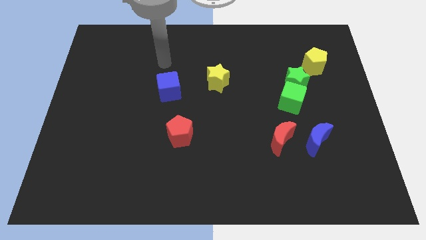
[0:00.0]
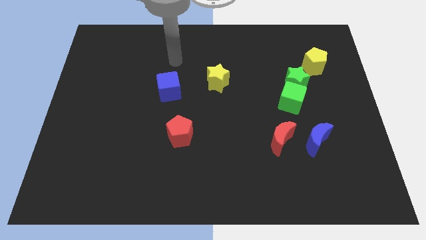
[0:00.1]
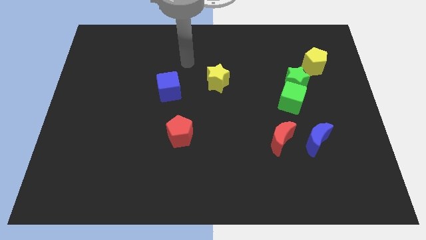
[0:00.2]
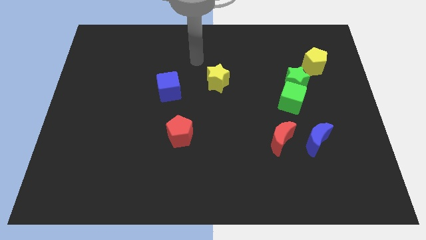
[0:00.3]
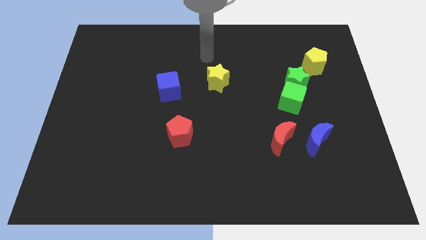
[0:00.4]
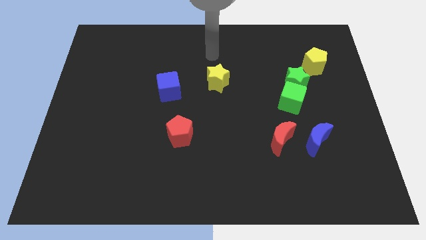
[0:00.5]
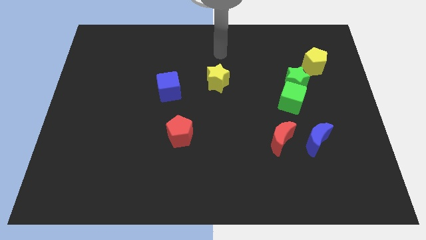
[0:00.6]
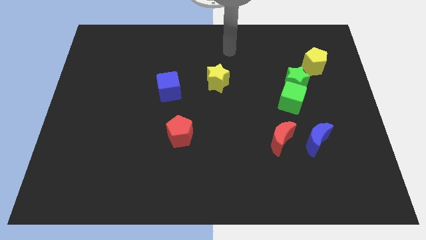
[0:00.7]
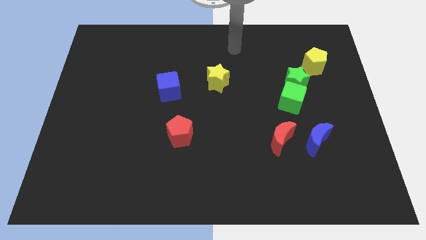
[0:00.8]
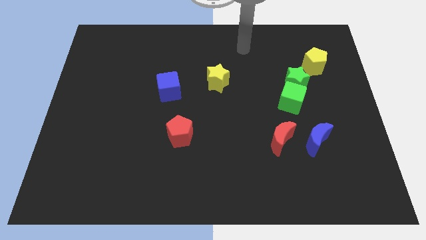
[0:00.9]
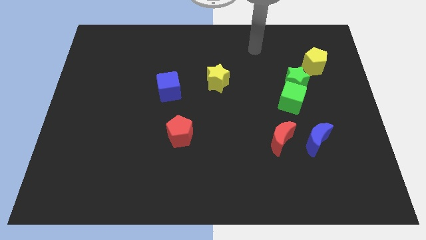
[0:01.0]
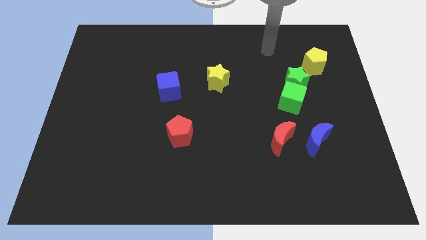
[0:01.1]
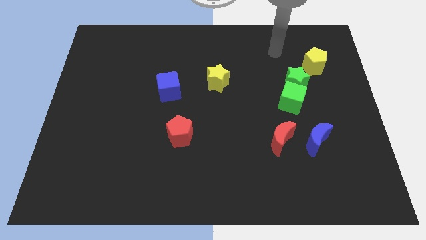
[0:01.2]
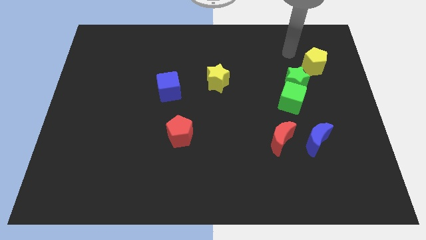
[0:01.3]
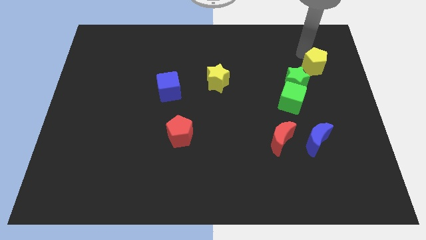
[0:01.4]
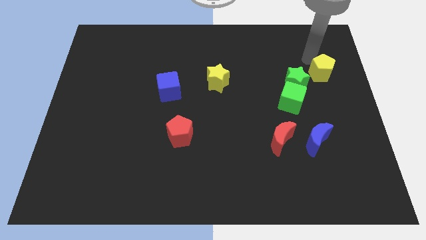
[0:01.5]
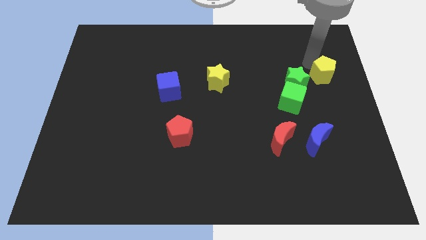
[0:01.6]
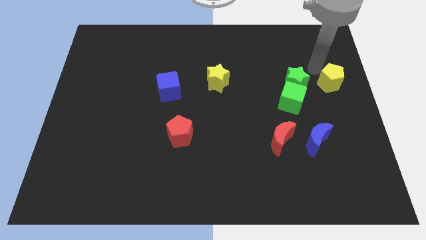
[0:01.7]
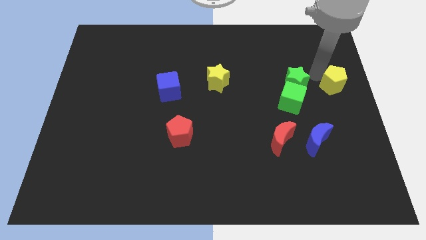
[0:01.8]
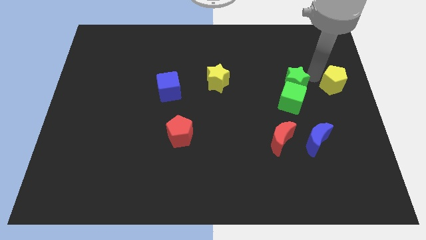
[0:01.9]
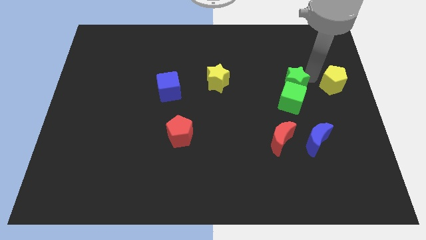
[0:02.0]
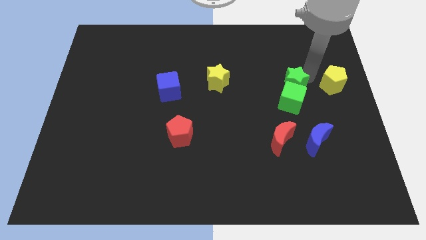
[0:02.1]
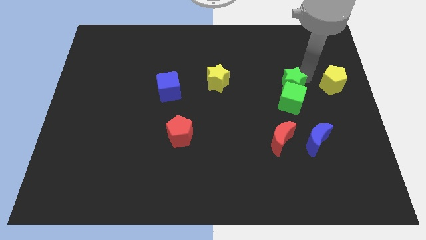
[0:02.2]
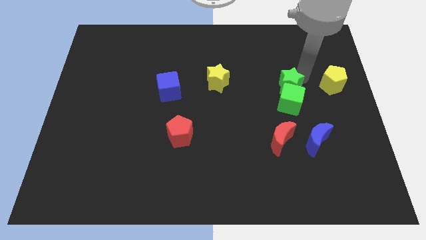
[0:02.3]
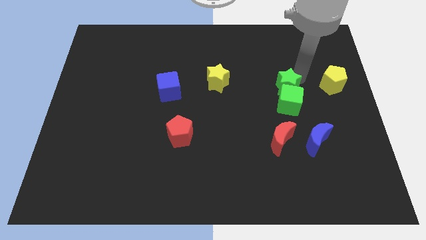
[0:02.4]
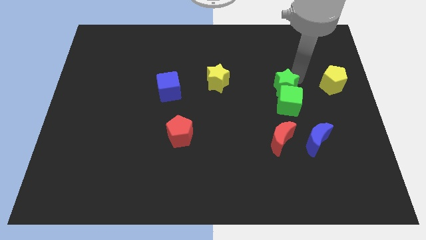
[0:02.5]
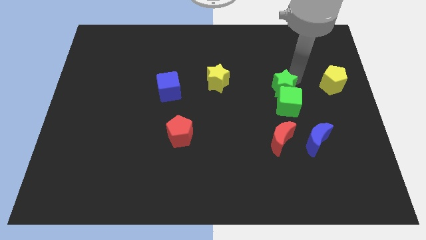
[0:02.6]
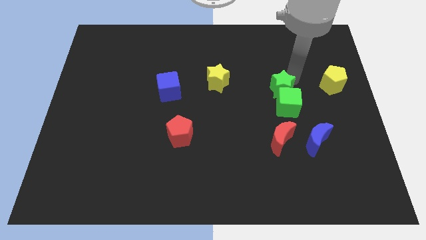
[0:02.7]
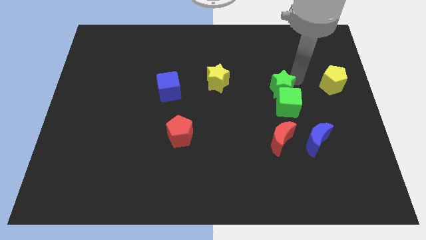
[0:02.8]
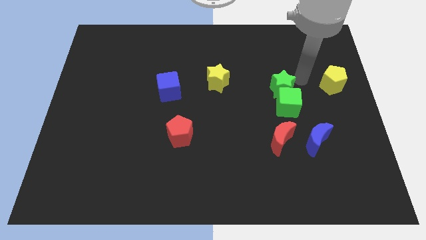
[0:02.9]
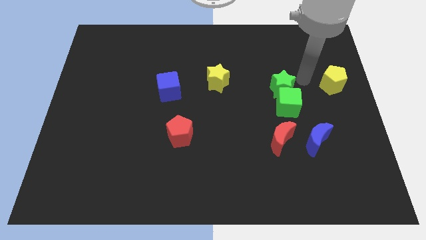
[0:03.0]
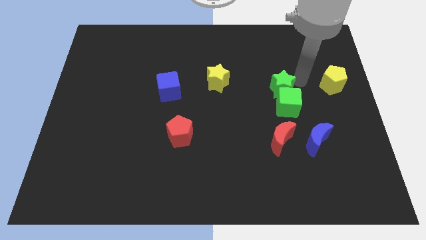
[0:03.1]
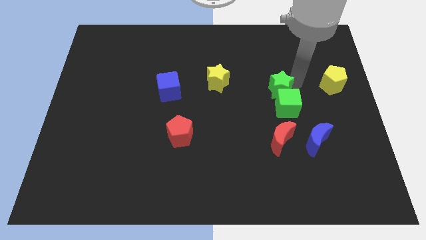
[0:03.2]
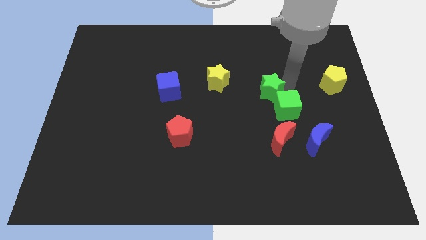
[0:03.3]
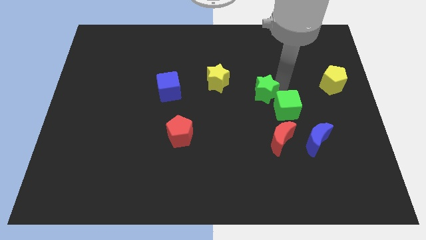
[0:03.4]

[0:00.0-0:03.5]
slightly move the green star downwards and to the left diagonally

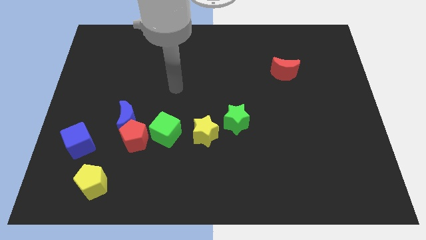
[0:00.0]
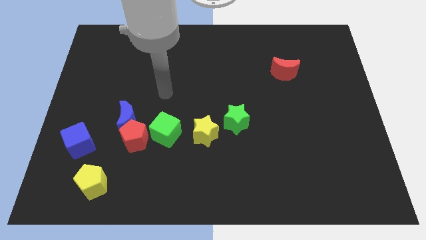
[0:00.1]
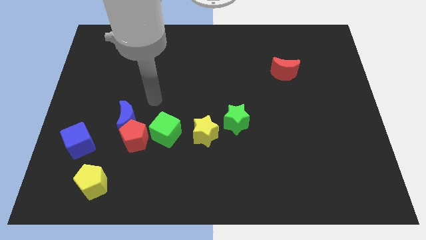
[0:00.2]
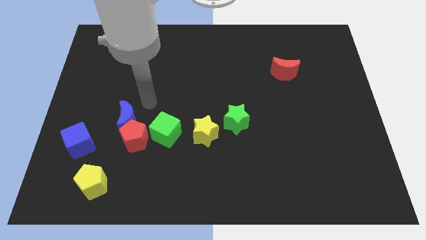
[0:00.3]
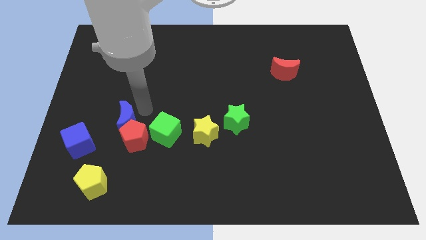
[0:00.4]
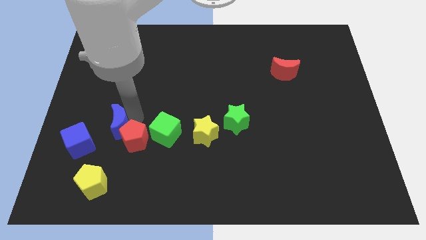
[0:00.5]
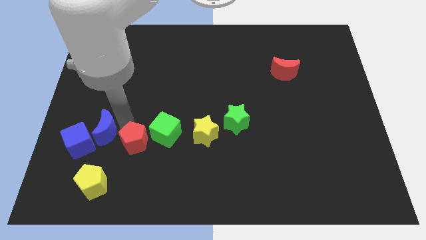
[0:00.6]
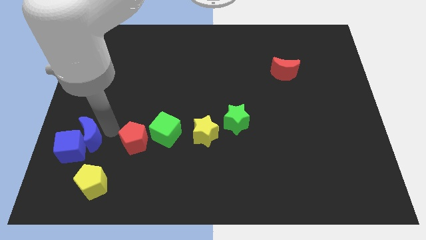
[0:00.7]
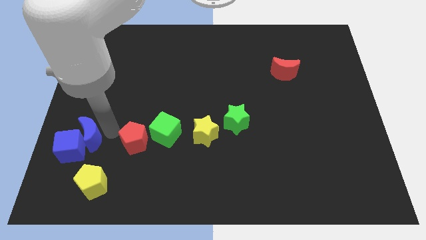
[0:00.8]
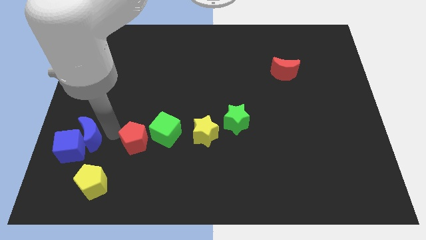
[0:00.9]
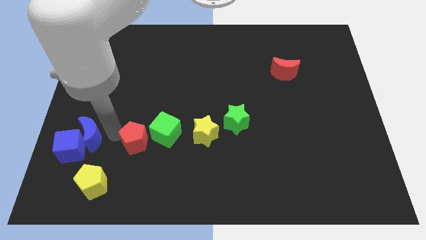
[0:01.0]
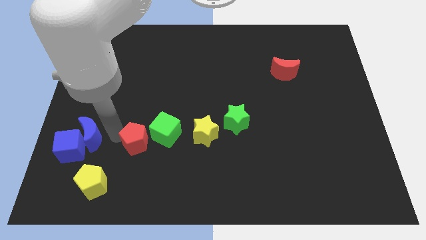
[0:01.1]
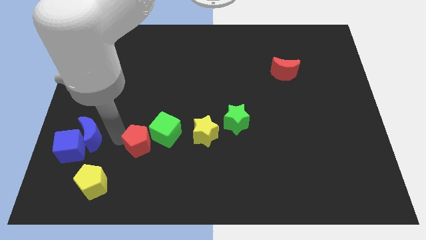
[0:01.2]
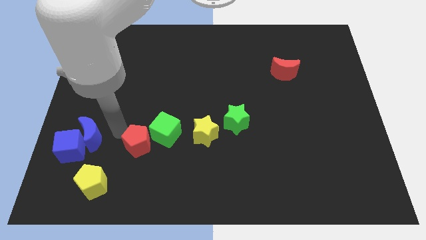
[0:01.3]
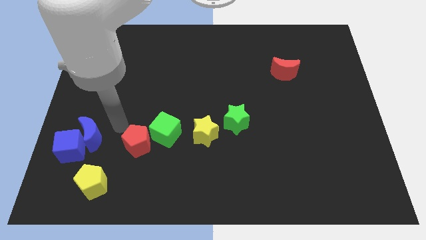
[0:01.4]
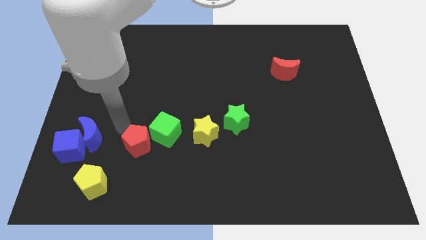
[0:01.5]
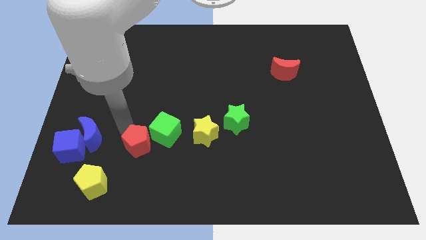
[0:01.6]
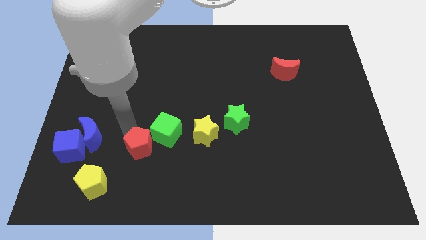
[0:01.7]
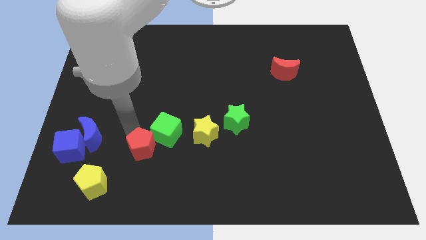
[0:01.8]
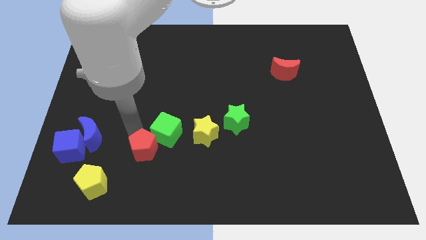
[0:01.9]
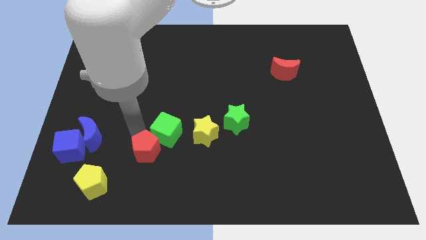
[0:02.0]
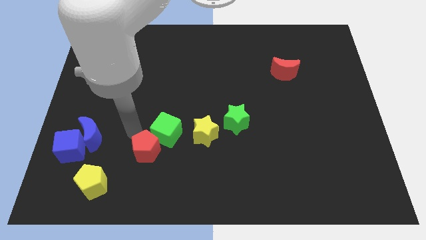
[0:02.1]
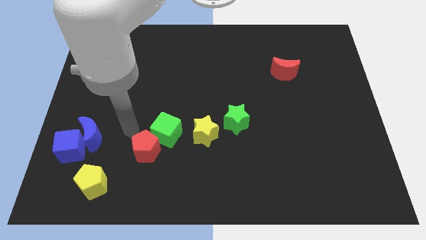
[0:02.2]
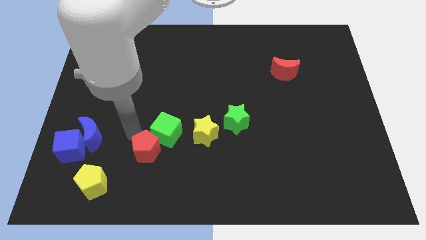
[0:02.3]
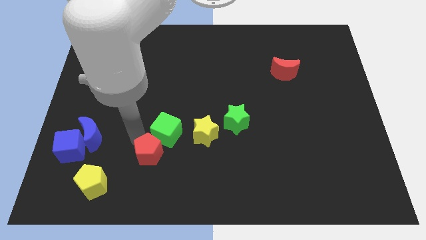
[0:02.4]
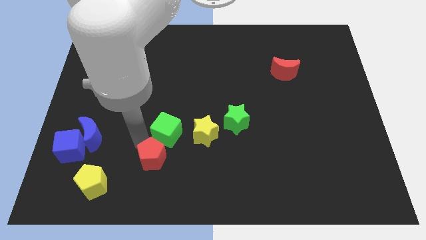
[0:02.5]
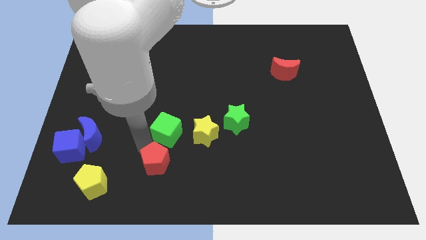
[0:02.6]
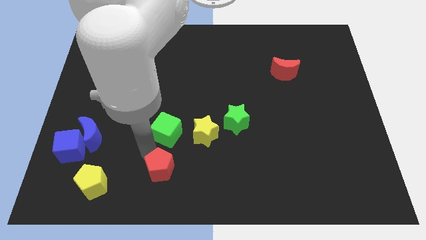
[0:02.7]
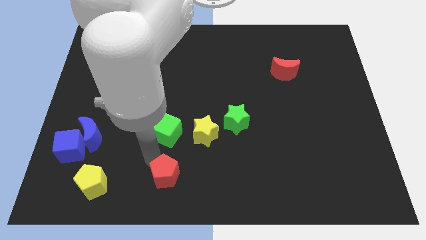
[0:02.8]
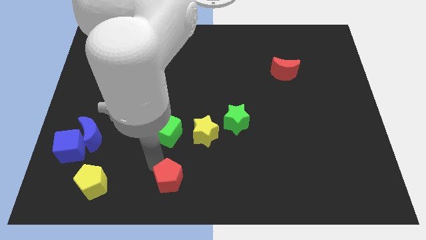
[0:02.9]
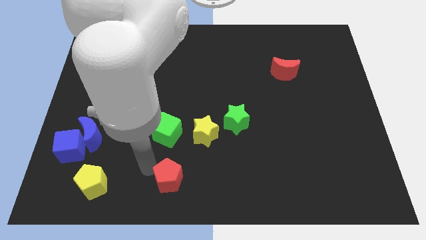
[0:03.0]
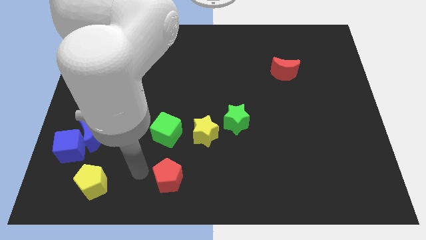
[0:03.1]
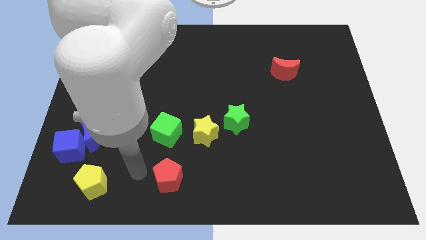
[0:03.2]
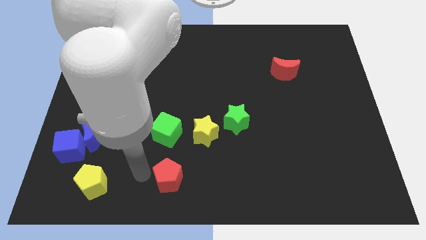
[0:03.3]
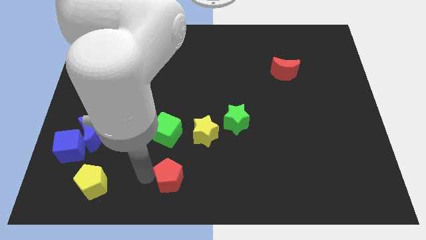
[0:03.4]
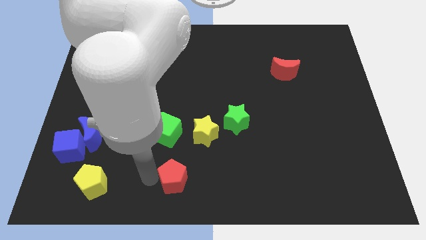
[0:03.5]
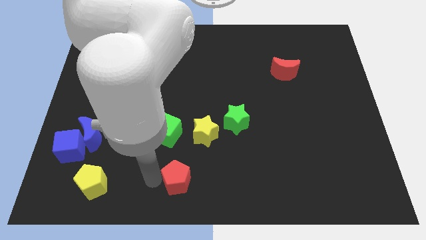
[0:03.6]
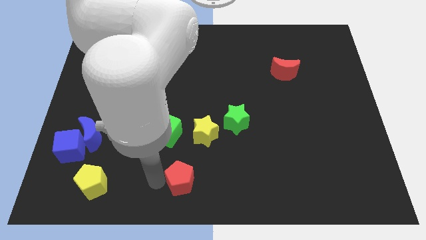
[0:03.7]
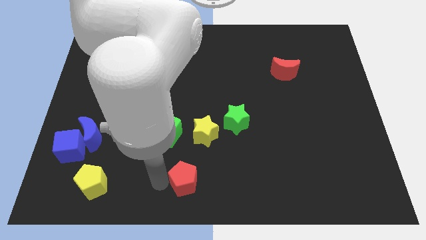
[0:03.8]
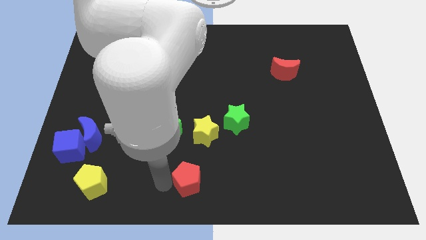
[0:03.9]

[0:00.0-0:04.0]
slide the red pentagon a bit to the right

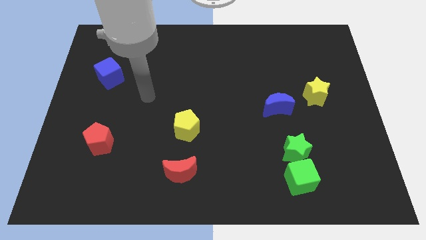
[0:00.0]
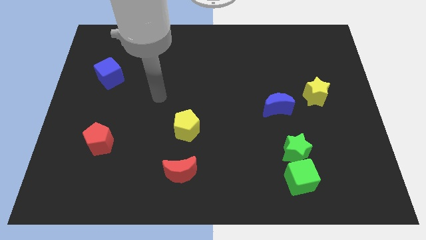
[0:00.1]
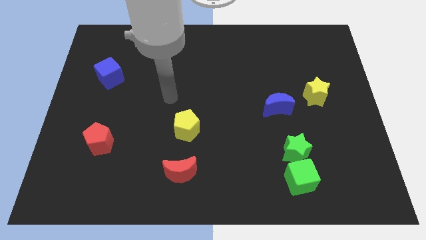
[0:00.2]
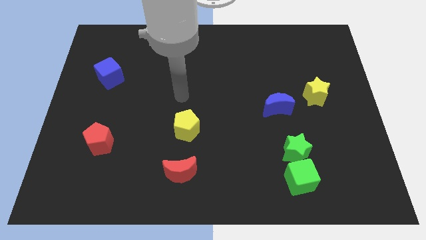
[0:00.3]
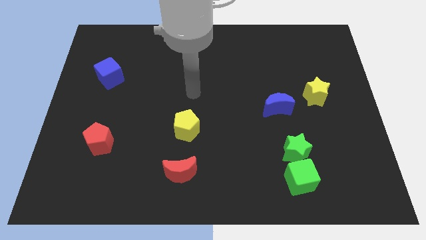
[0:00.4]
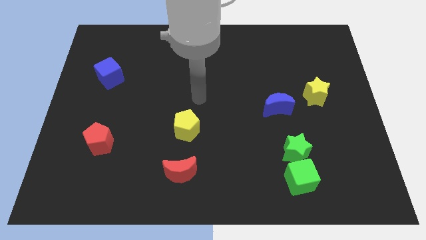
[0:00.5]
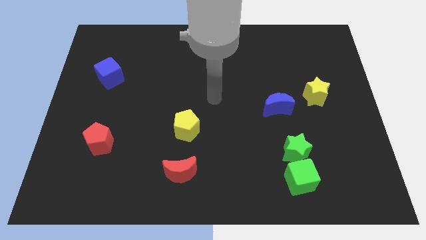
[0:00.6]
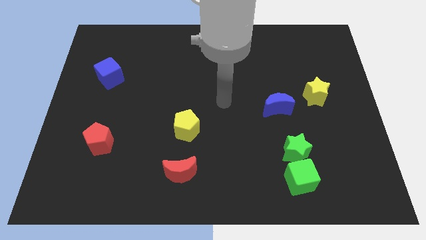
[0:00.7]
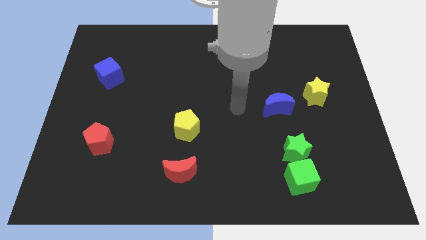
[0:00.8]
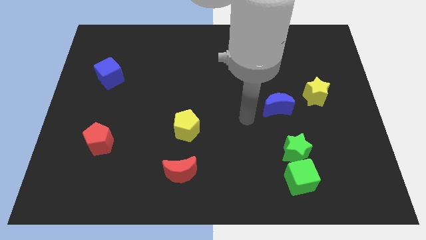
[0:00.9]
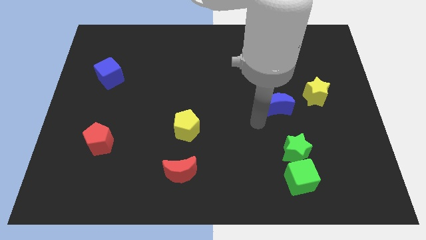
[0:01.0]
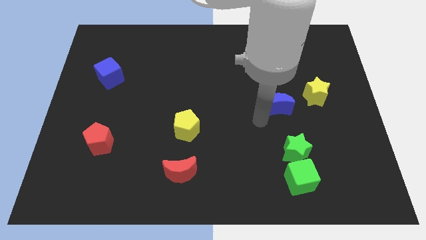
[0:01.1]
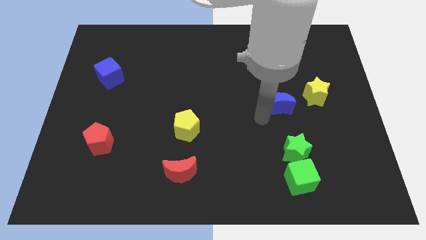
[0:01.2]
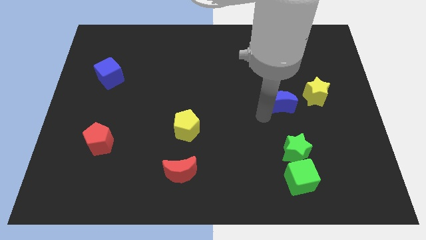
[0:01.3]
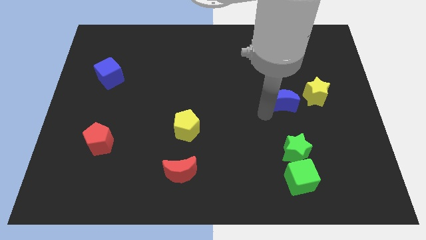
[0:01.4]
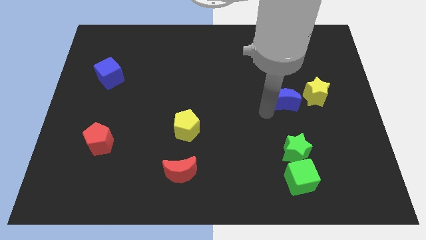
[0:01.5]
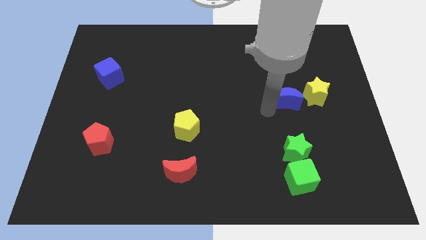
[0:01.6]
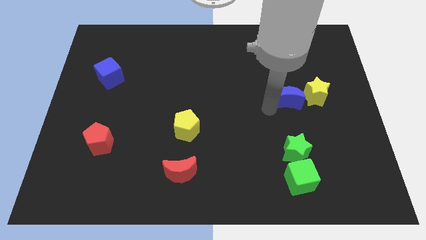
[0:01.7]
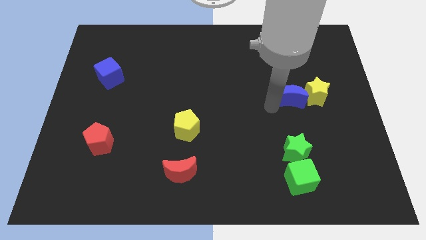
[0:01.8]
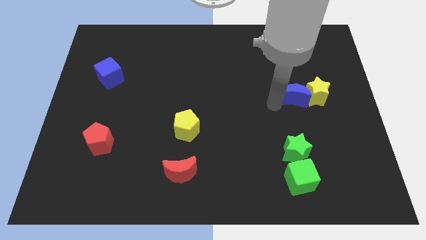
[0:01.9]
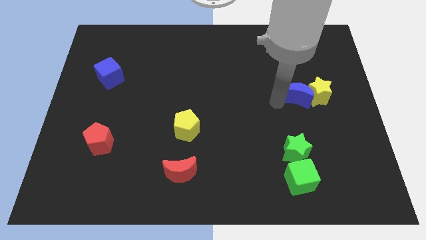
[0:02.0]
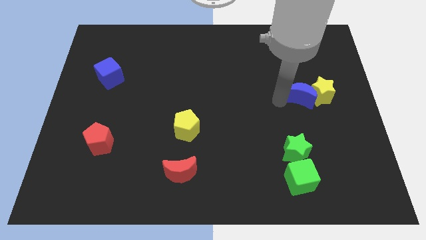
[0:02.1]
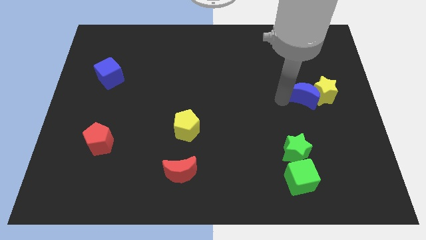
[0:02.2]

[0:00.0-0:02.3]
push the blue moon slightly up and then right
